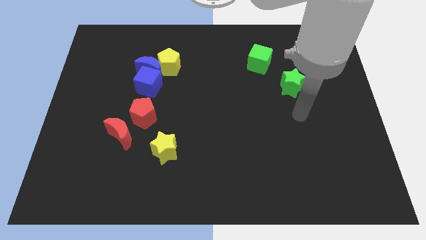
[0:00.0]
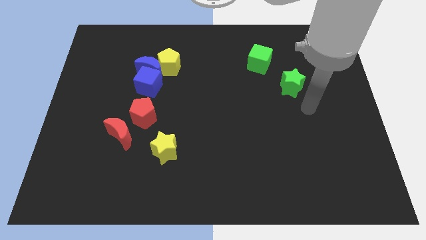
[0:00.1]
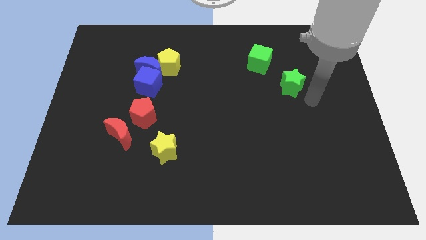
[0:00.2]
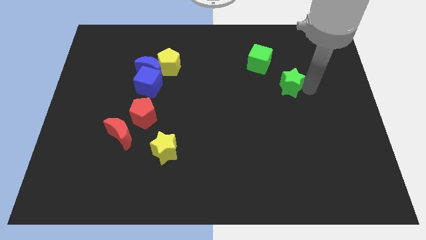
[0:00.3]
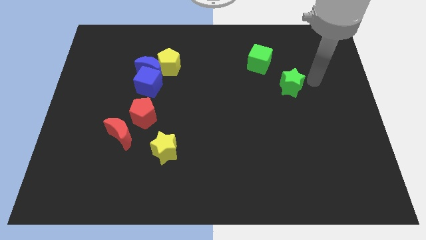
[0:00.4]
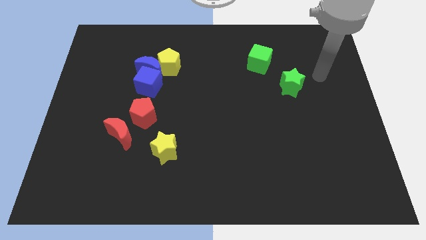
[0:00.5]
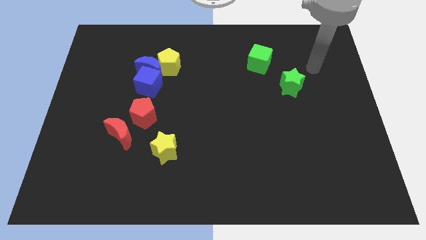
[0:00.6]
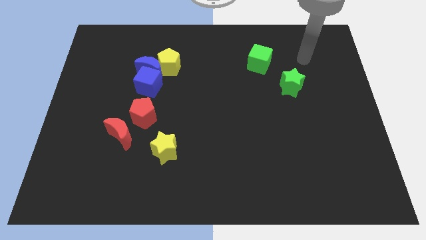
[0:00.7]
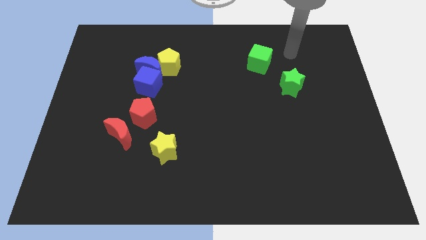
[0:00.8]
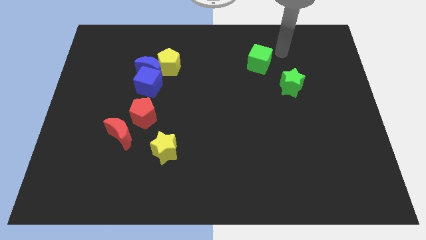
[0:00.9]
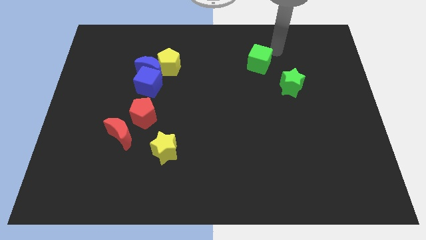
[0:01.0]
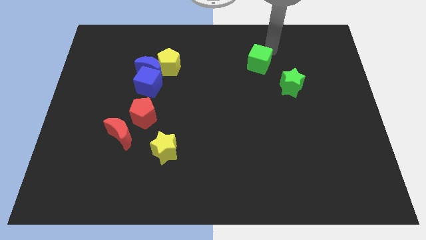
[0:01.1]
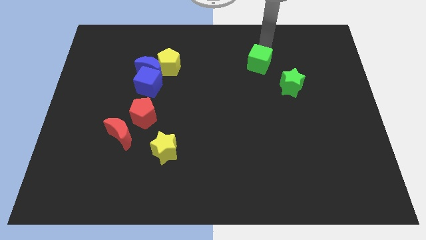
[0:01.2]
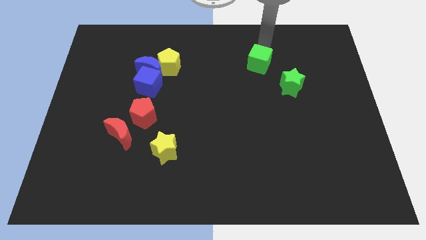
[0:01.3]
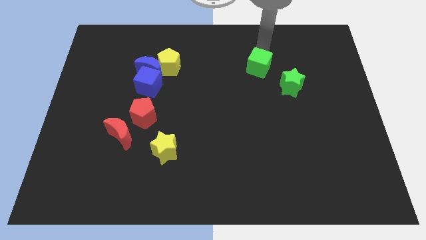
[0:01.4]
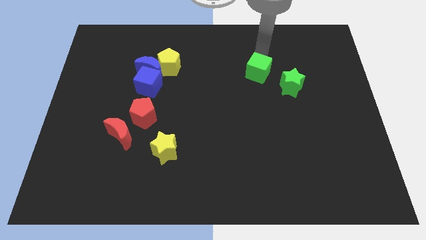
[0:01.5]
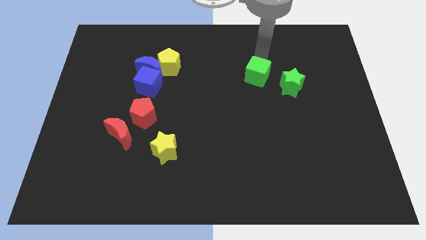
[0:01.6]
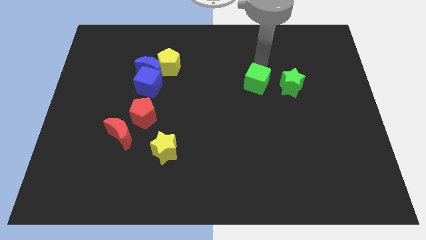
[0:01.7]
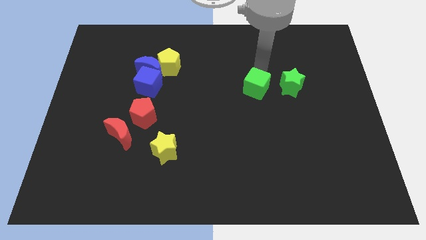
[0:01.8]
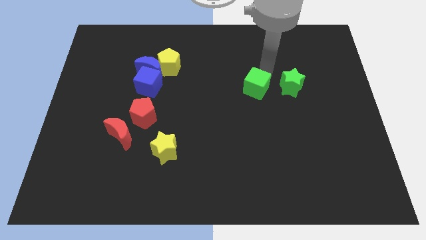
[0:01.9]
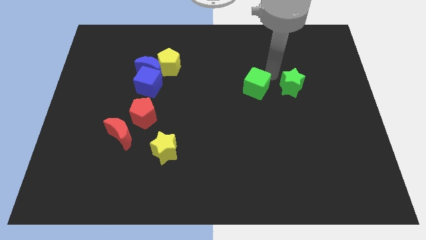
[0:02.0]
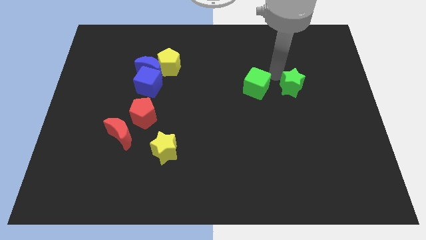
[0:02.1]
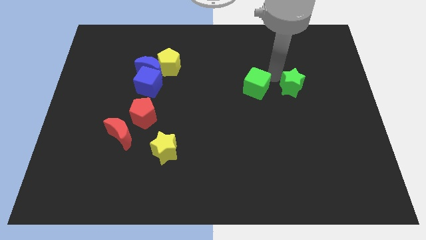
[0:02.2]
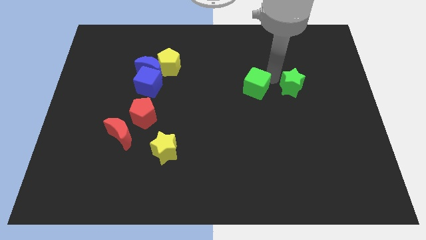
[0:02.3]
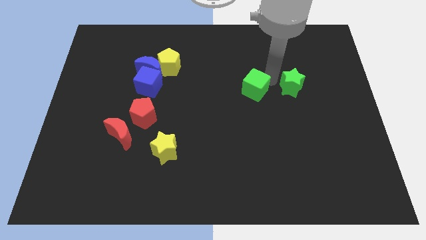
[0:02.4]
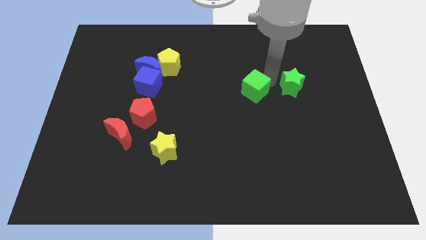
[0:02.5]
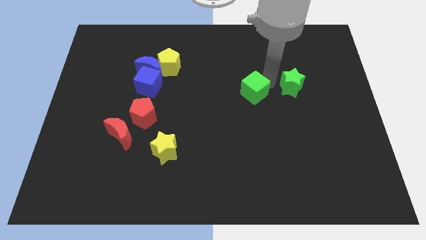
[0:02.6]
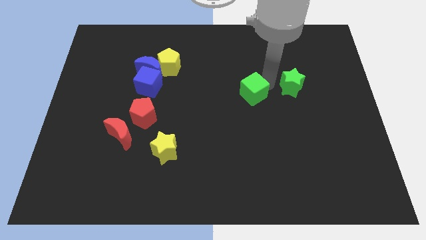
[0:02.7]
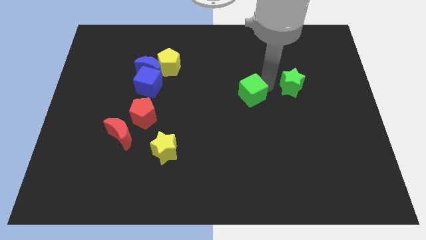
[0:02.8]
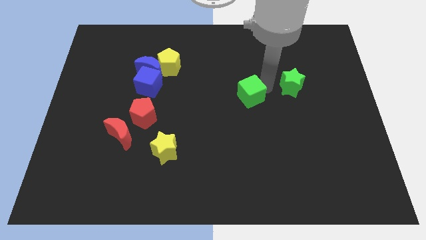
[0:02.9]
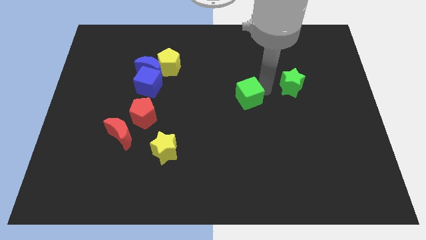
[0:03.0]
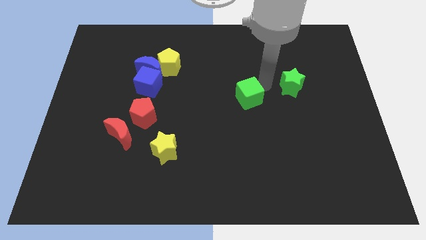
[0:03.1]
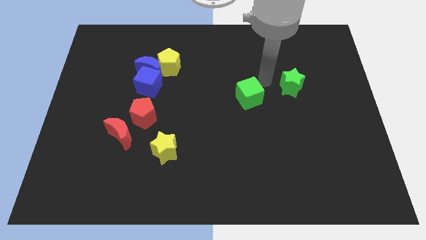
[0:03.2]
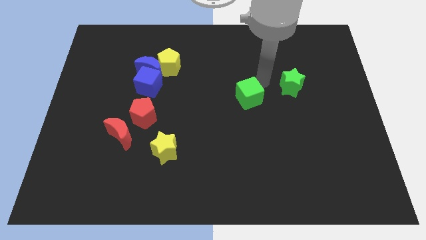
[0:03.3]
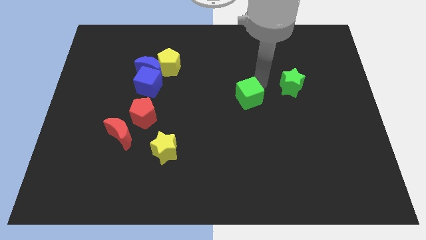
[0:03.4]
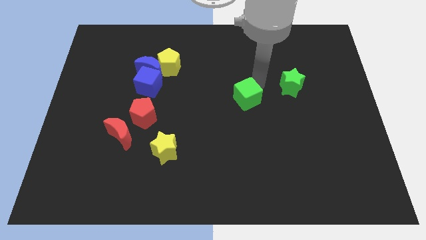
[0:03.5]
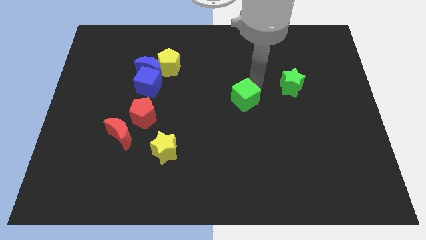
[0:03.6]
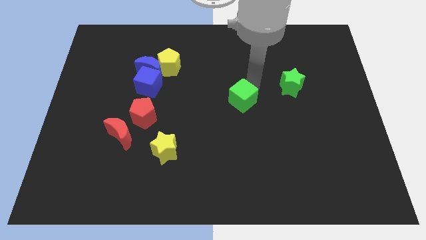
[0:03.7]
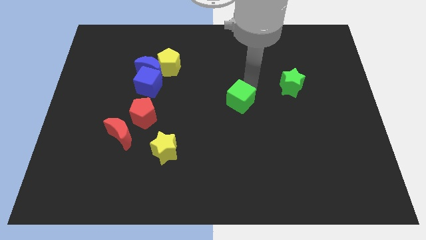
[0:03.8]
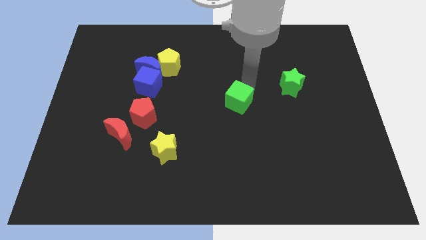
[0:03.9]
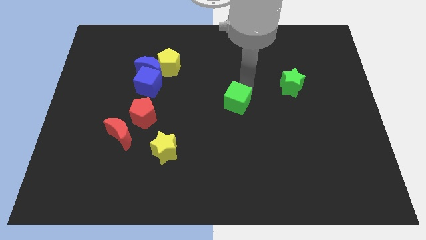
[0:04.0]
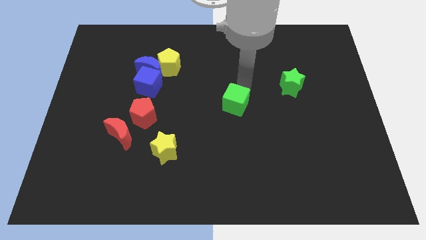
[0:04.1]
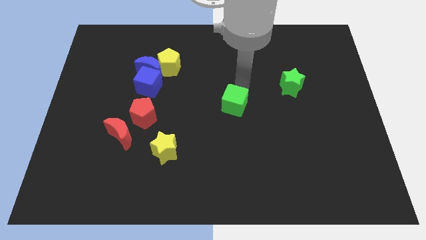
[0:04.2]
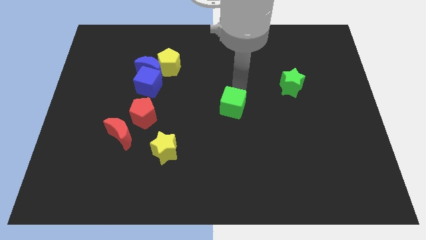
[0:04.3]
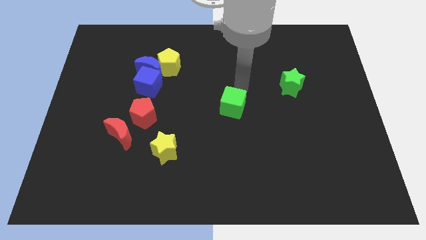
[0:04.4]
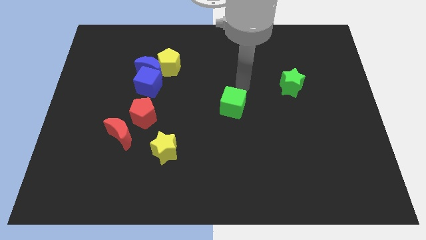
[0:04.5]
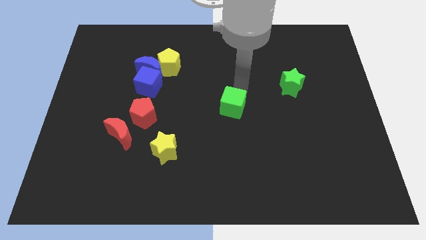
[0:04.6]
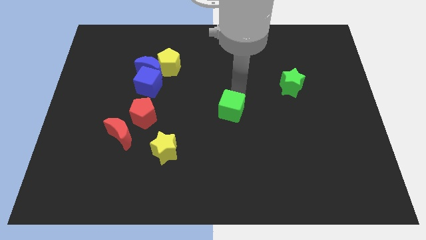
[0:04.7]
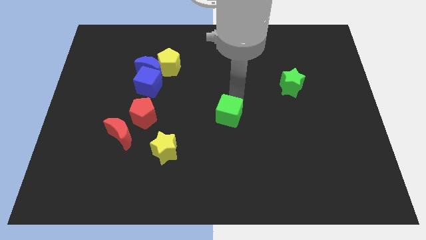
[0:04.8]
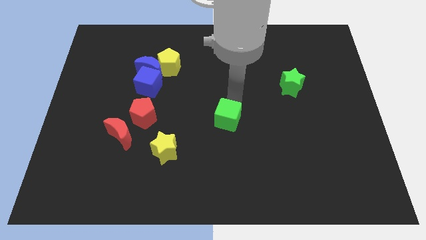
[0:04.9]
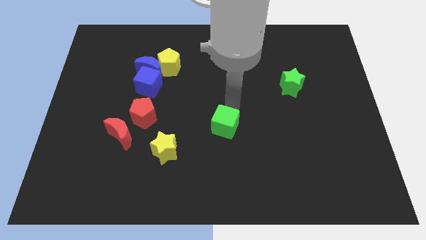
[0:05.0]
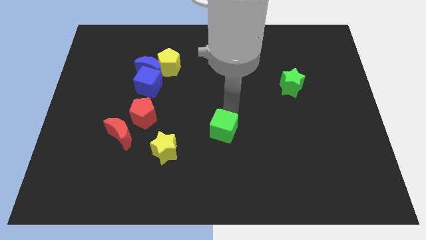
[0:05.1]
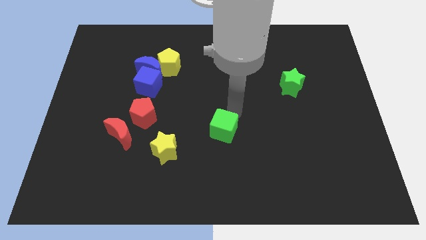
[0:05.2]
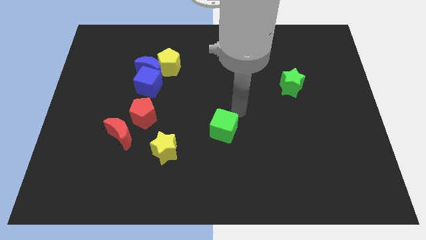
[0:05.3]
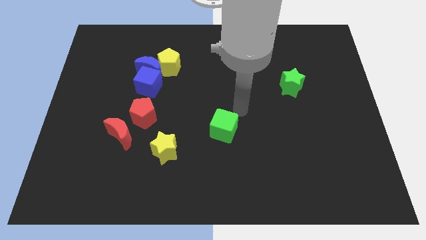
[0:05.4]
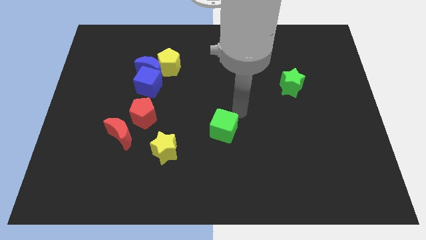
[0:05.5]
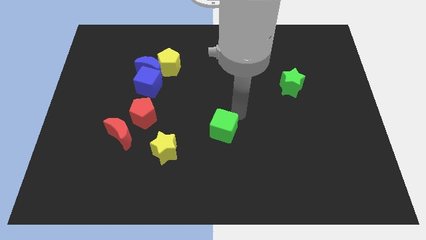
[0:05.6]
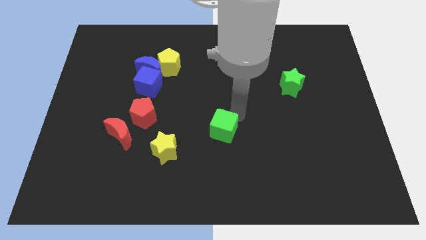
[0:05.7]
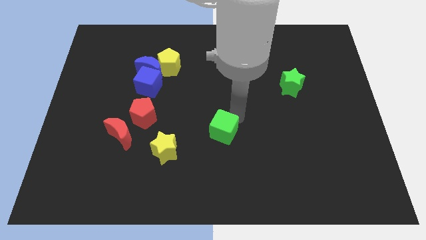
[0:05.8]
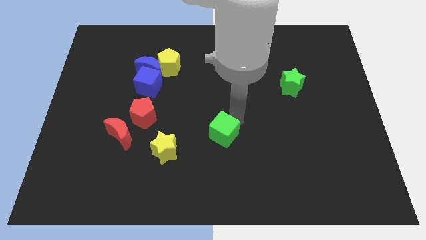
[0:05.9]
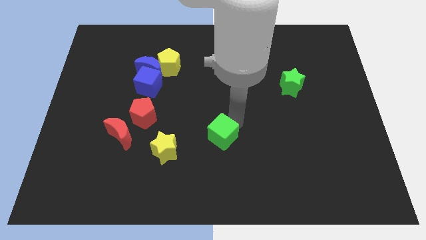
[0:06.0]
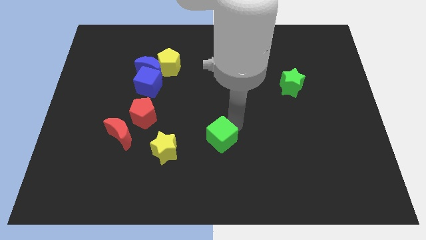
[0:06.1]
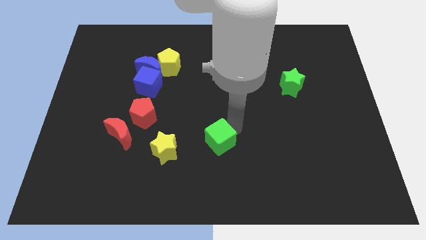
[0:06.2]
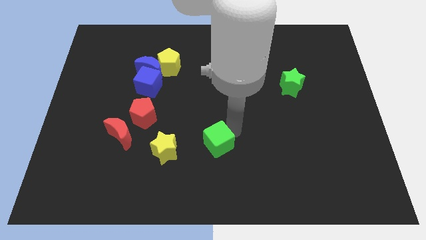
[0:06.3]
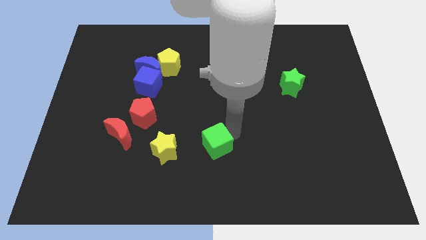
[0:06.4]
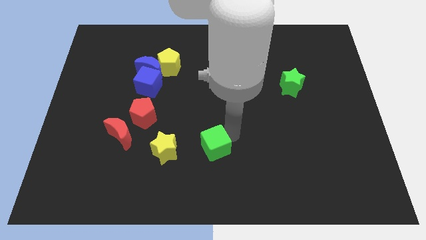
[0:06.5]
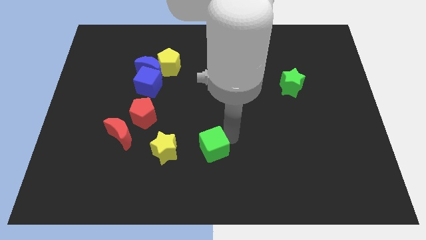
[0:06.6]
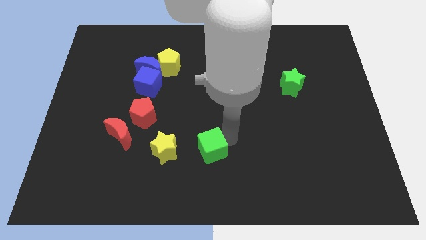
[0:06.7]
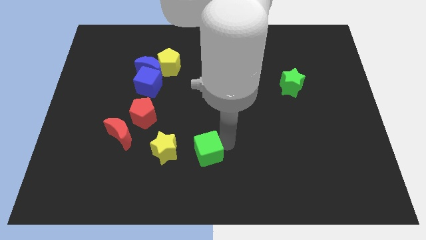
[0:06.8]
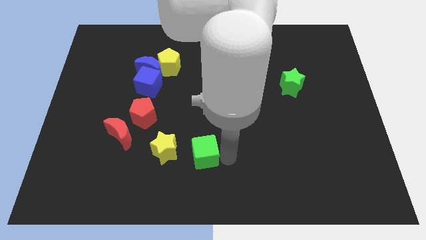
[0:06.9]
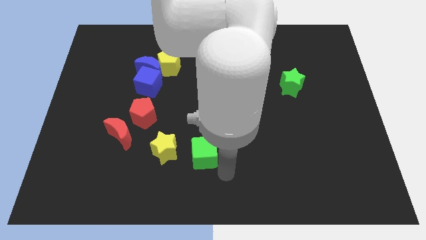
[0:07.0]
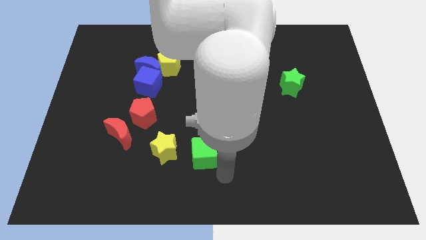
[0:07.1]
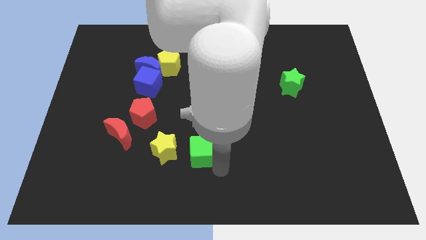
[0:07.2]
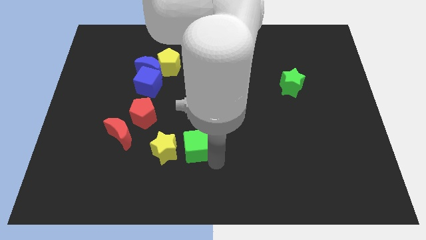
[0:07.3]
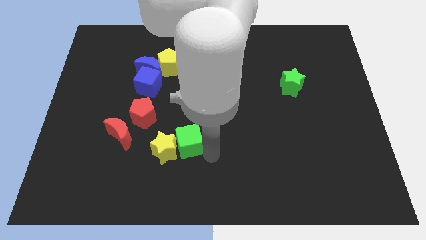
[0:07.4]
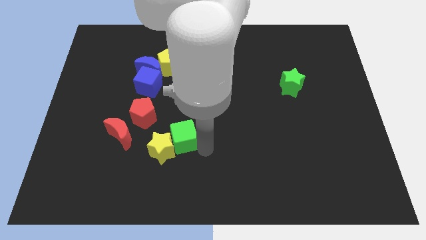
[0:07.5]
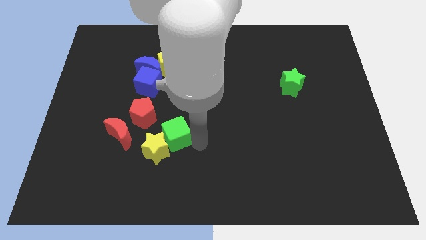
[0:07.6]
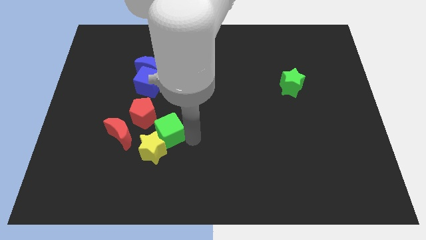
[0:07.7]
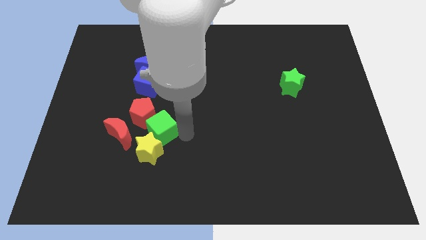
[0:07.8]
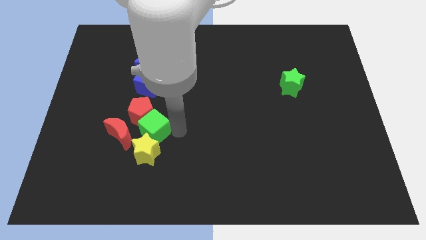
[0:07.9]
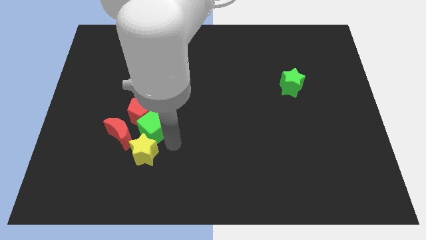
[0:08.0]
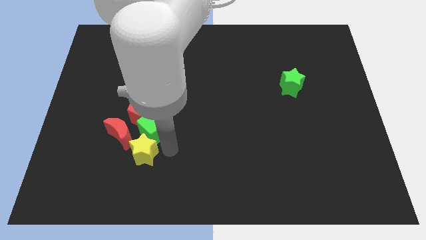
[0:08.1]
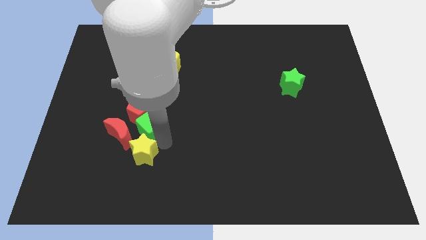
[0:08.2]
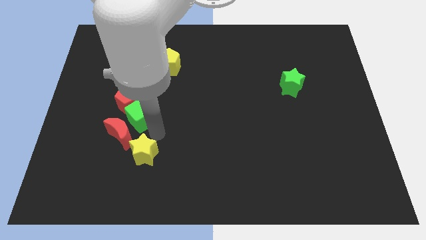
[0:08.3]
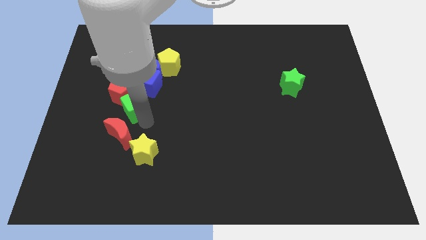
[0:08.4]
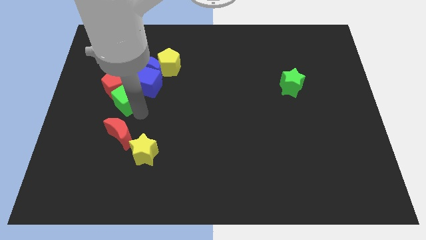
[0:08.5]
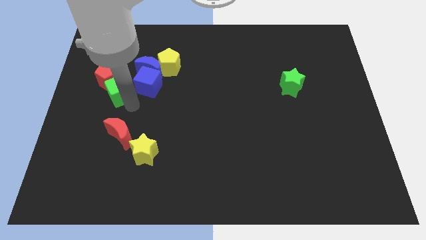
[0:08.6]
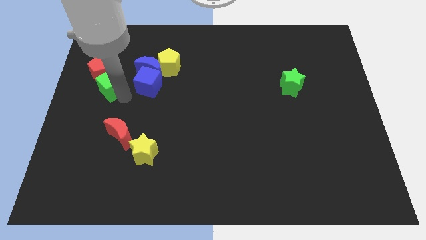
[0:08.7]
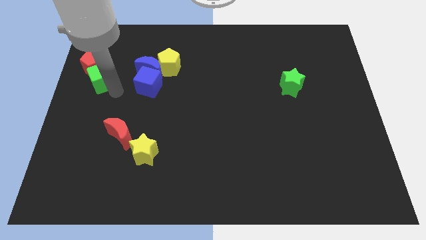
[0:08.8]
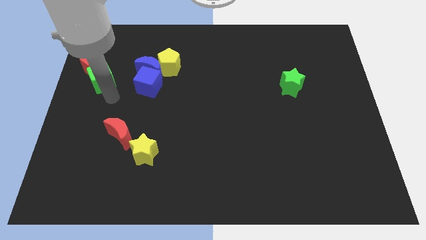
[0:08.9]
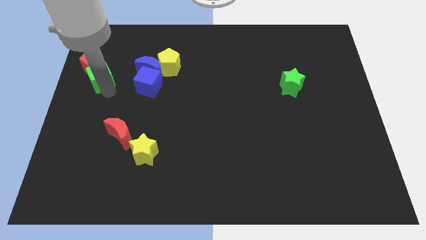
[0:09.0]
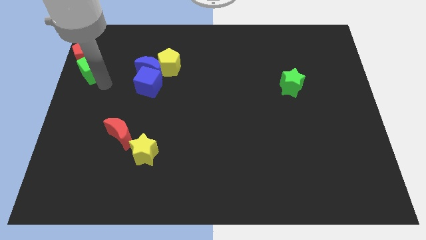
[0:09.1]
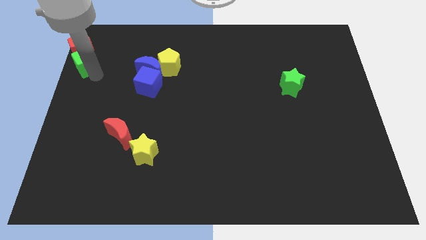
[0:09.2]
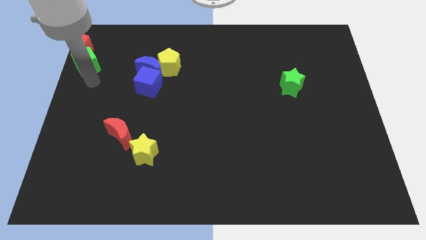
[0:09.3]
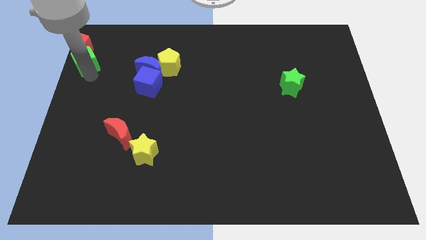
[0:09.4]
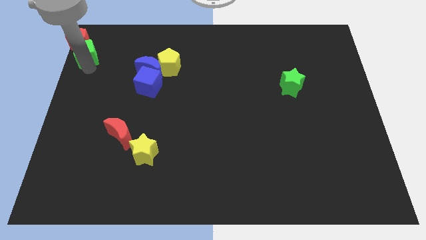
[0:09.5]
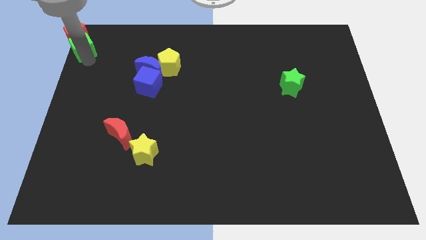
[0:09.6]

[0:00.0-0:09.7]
push the green cube to the top left
